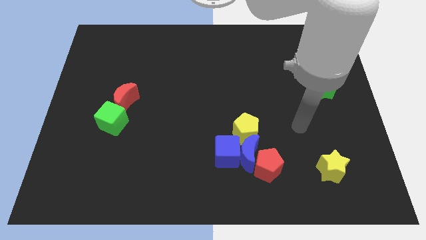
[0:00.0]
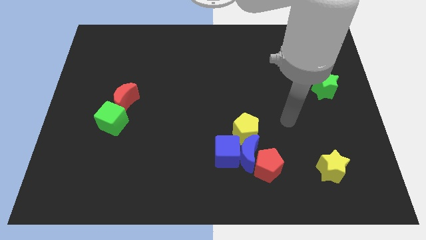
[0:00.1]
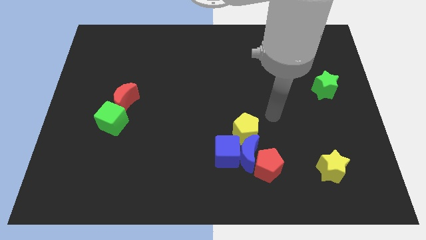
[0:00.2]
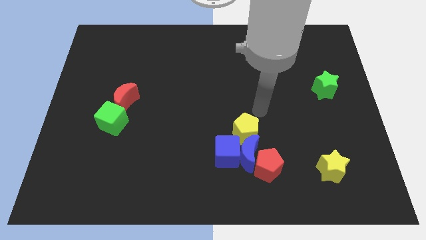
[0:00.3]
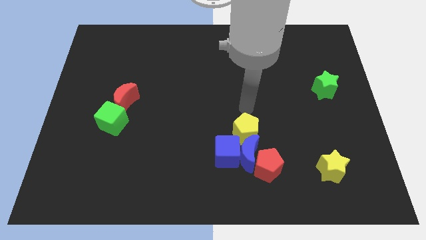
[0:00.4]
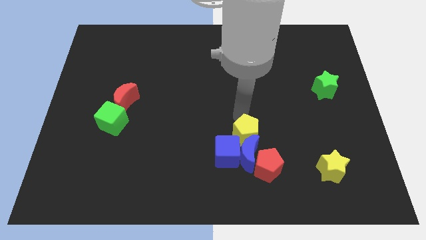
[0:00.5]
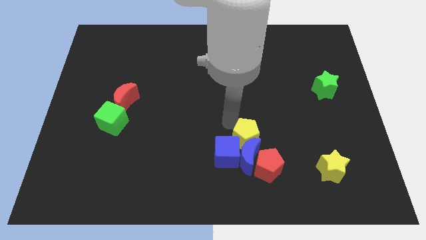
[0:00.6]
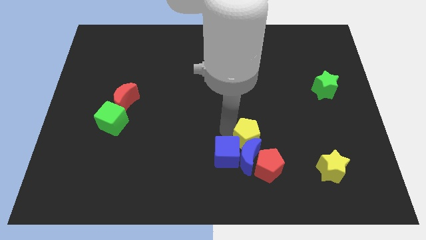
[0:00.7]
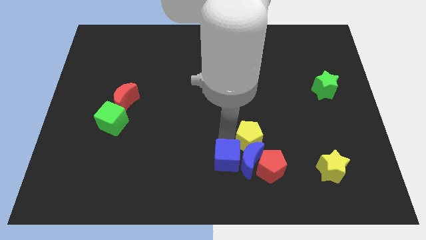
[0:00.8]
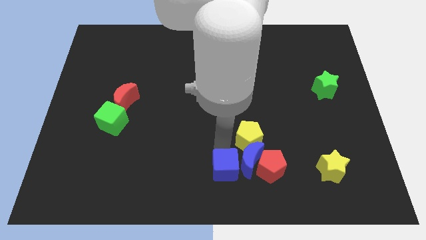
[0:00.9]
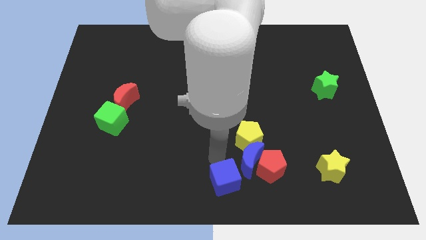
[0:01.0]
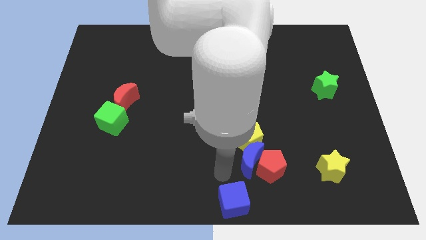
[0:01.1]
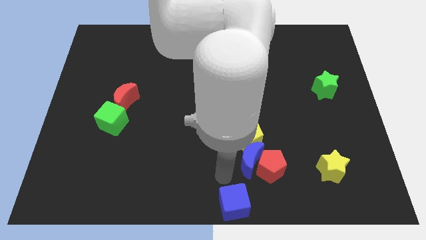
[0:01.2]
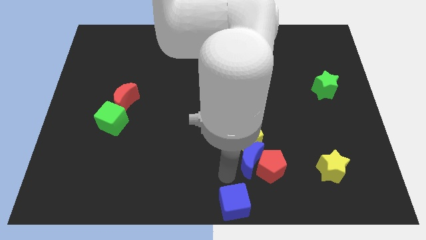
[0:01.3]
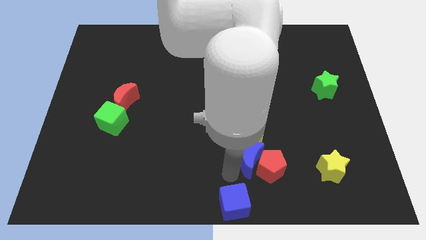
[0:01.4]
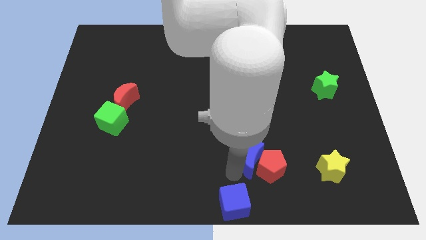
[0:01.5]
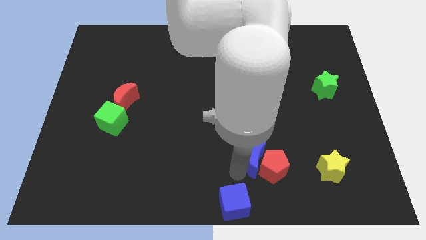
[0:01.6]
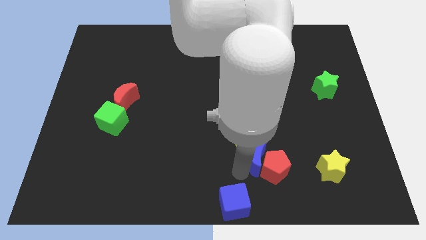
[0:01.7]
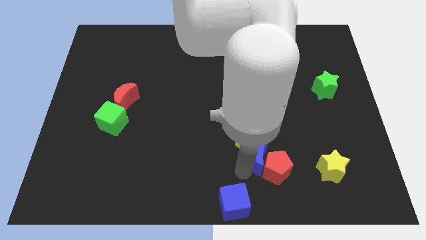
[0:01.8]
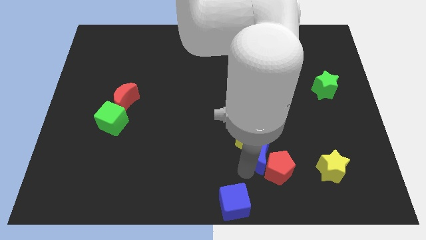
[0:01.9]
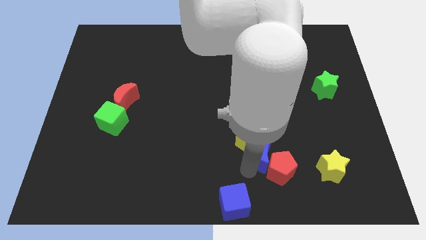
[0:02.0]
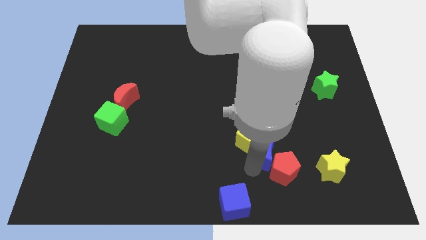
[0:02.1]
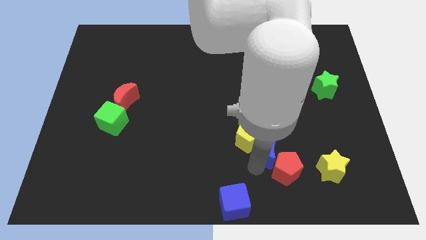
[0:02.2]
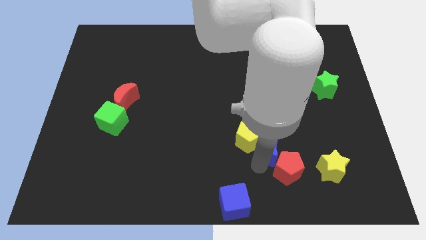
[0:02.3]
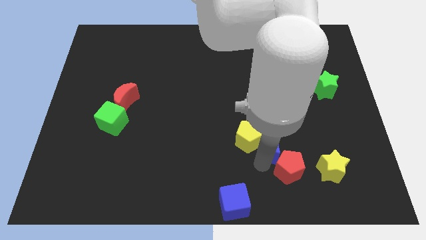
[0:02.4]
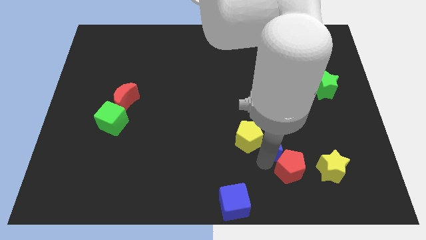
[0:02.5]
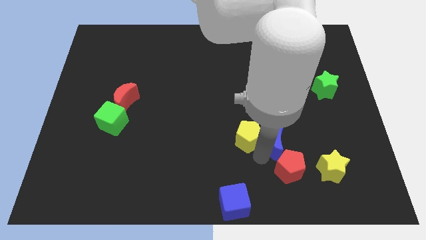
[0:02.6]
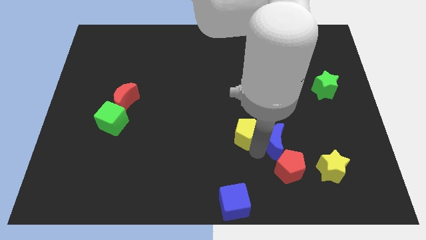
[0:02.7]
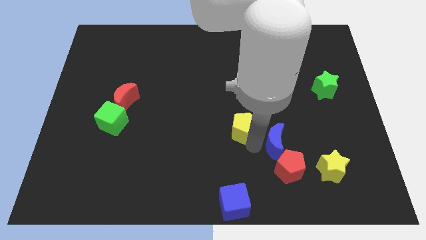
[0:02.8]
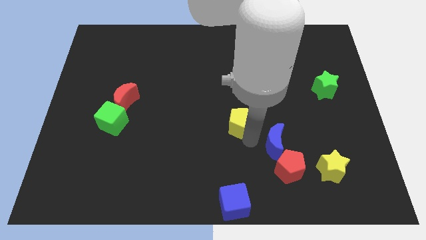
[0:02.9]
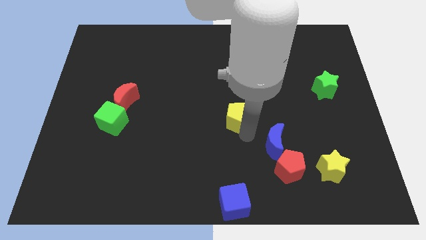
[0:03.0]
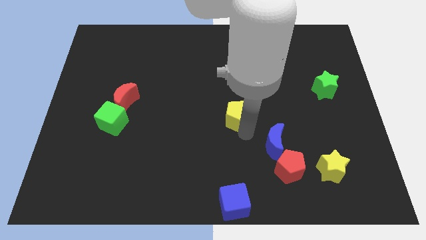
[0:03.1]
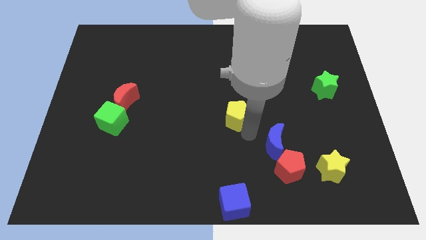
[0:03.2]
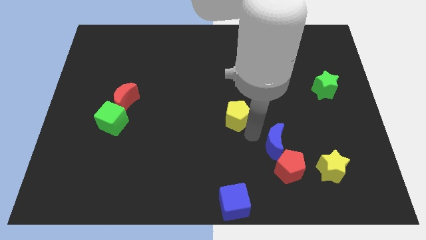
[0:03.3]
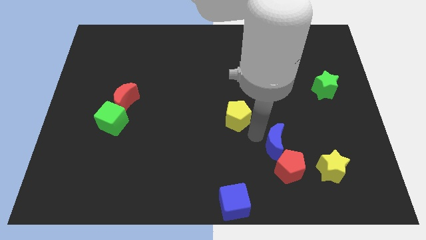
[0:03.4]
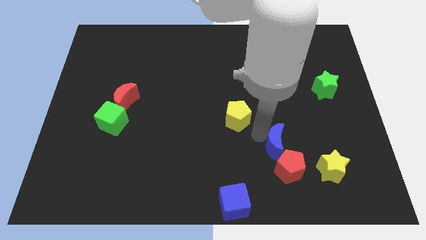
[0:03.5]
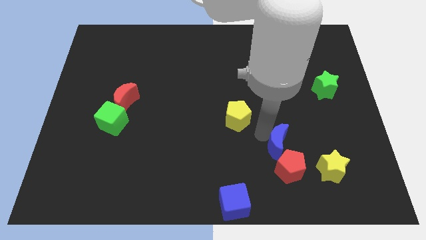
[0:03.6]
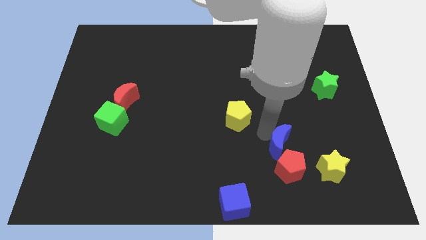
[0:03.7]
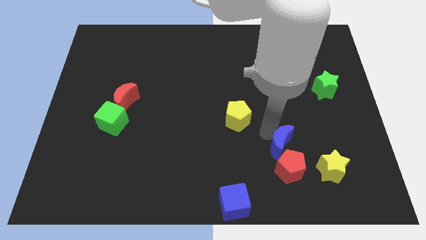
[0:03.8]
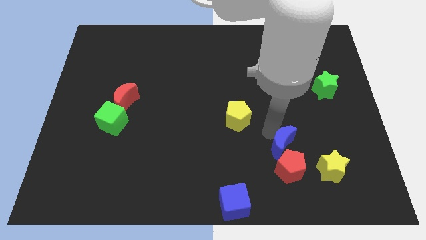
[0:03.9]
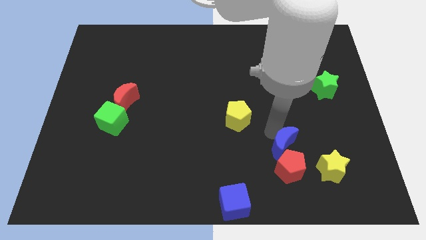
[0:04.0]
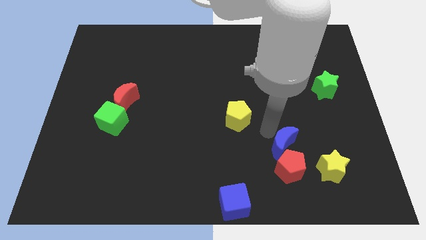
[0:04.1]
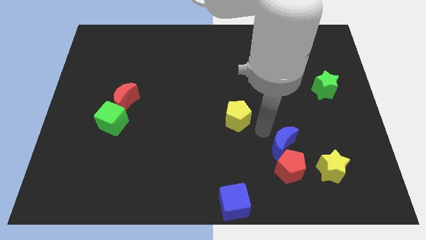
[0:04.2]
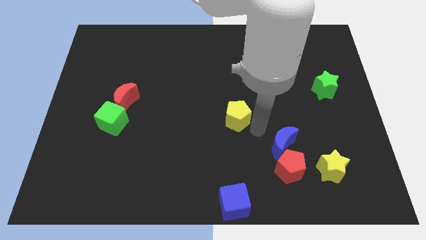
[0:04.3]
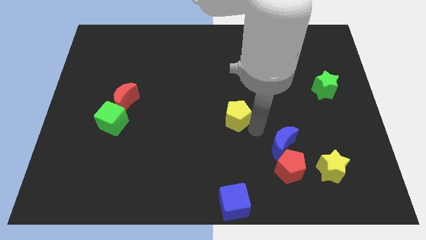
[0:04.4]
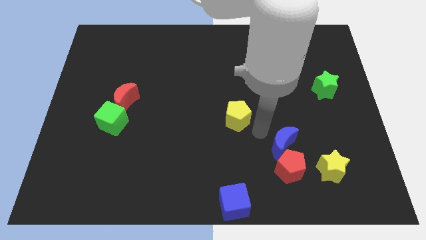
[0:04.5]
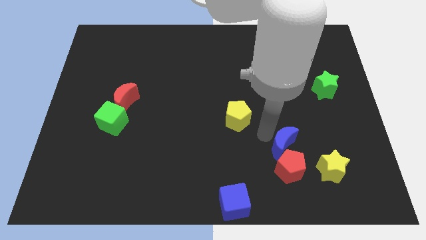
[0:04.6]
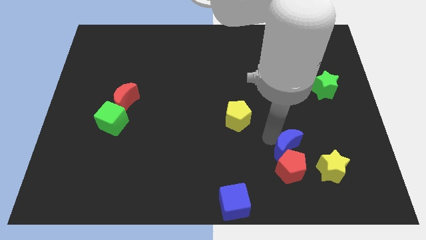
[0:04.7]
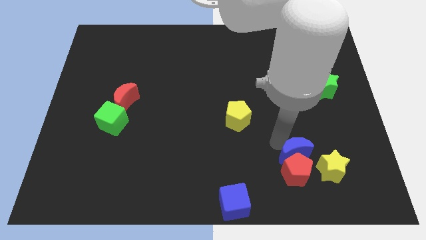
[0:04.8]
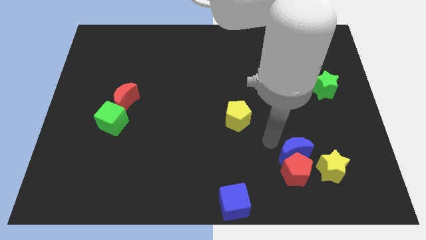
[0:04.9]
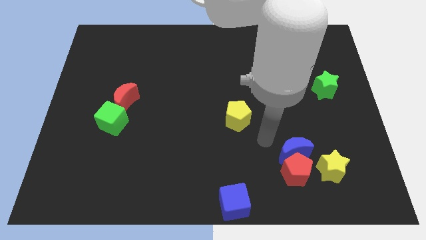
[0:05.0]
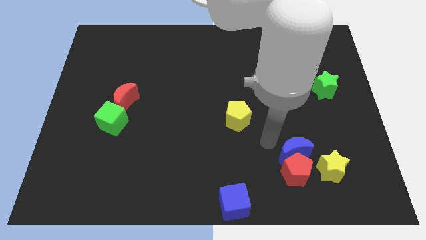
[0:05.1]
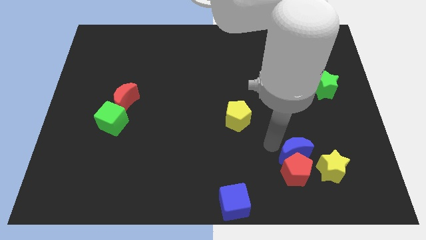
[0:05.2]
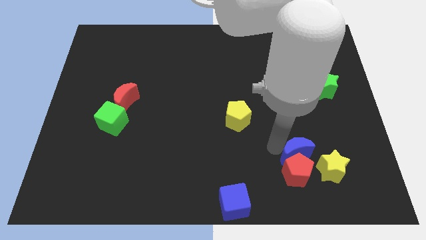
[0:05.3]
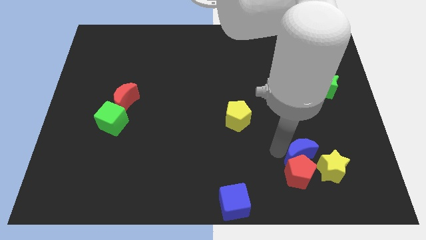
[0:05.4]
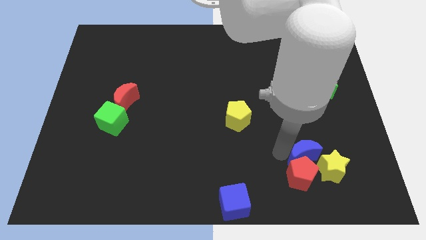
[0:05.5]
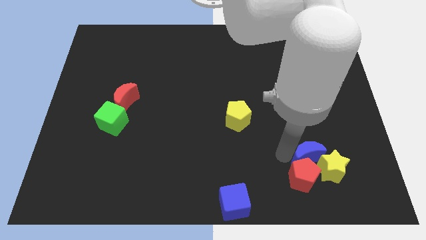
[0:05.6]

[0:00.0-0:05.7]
move the blue moon towards the yellow star
